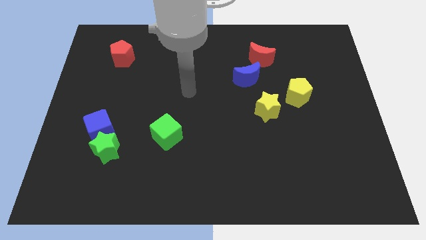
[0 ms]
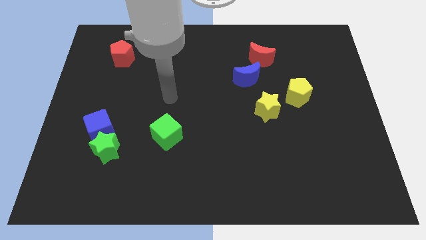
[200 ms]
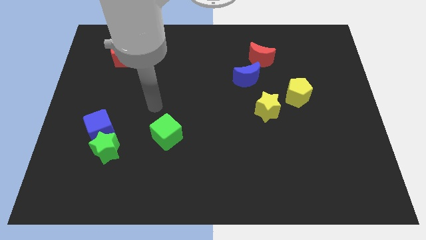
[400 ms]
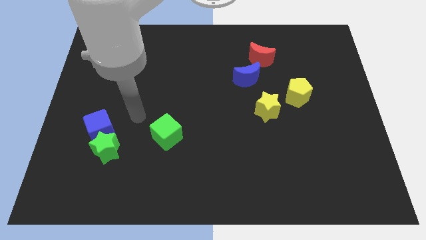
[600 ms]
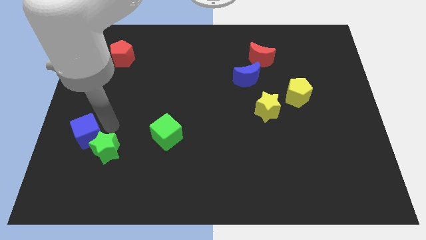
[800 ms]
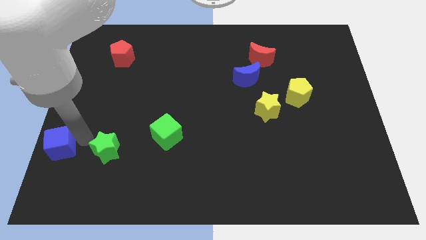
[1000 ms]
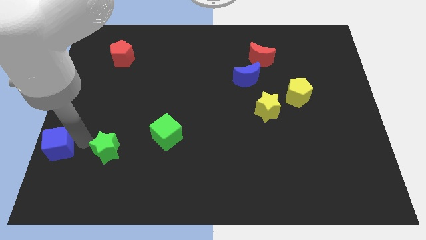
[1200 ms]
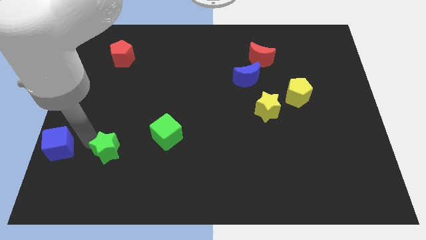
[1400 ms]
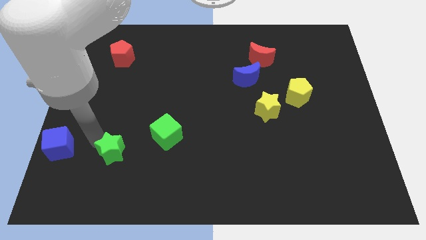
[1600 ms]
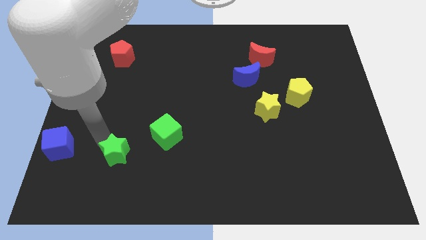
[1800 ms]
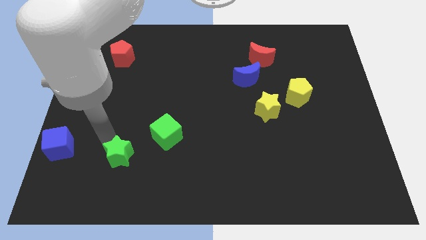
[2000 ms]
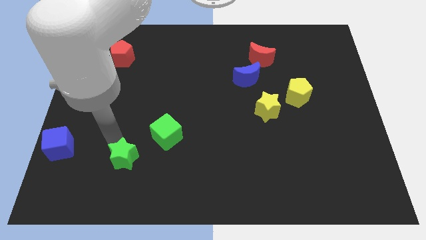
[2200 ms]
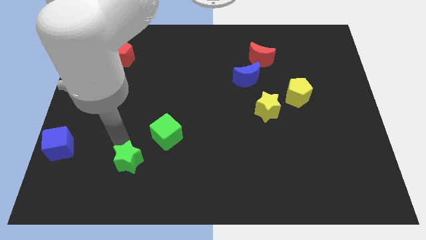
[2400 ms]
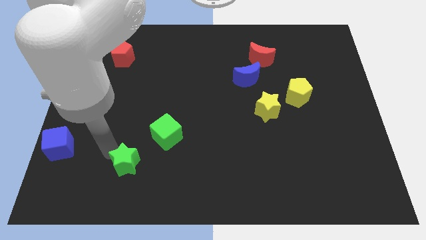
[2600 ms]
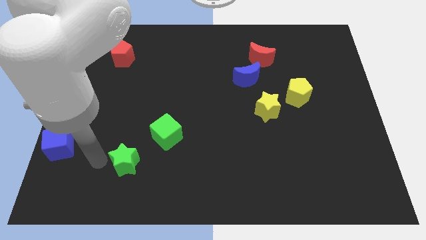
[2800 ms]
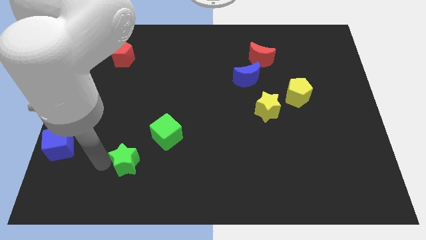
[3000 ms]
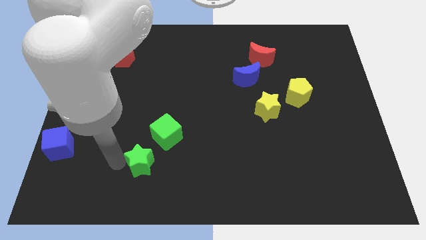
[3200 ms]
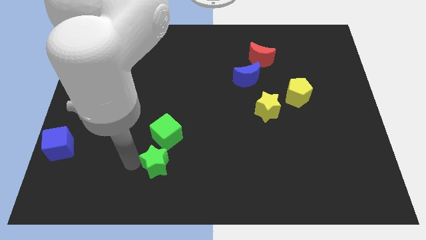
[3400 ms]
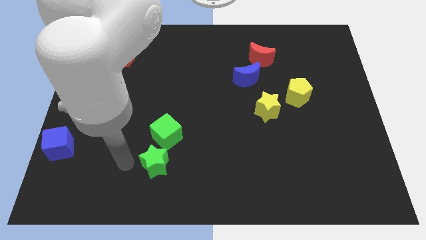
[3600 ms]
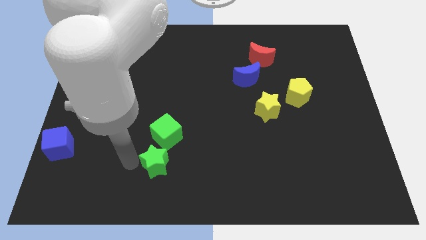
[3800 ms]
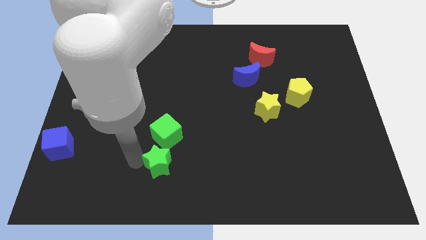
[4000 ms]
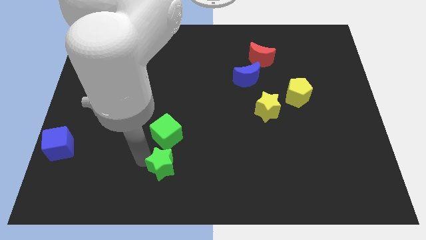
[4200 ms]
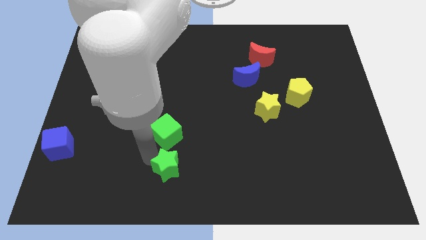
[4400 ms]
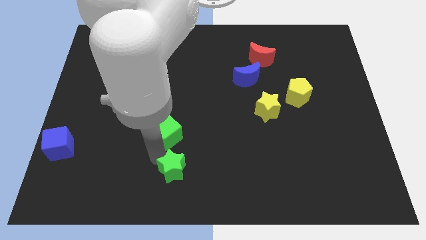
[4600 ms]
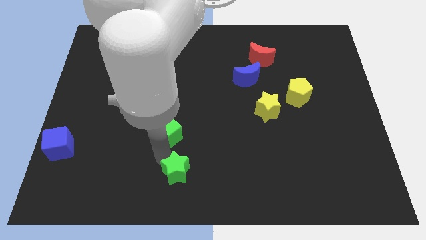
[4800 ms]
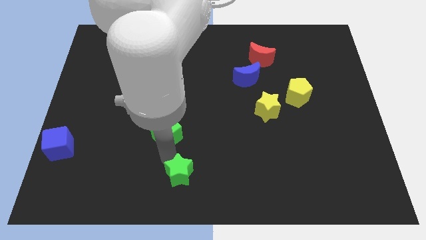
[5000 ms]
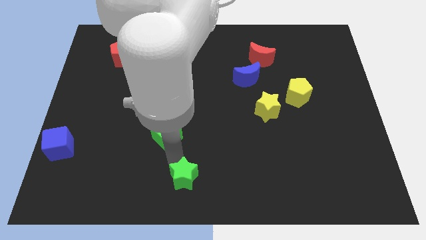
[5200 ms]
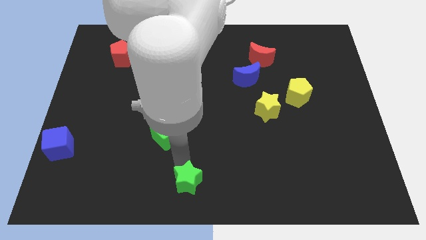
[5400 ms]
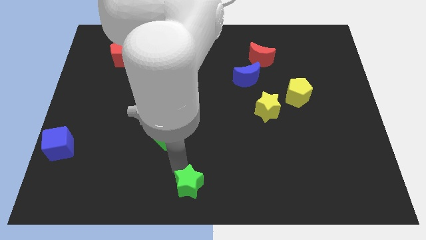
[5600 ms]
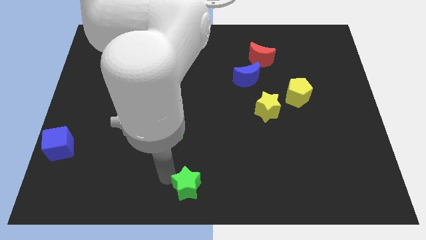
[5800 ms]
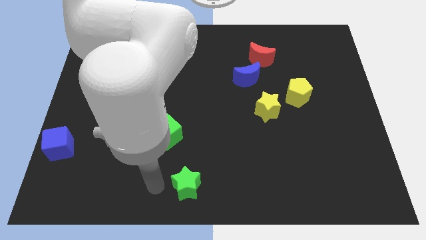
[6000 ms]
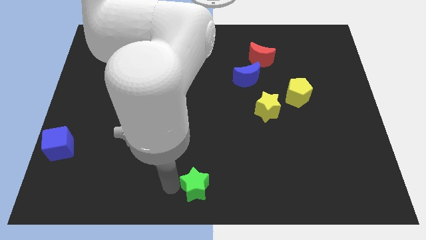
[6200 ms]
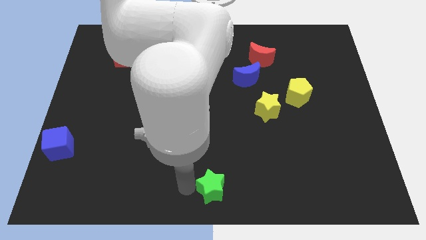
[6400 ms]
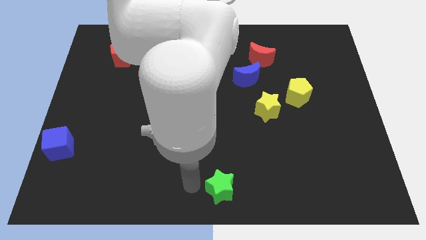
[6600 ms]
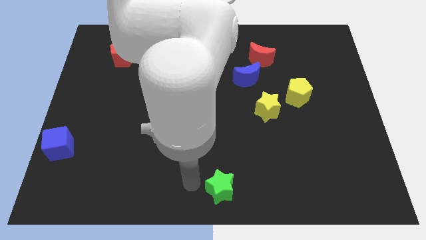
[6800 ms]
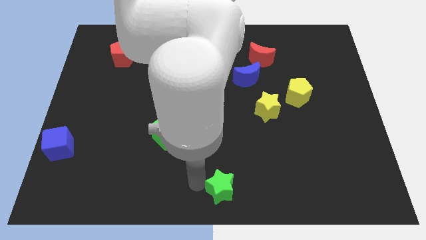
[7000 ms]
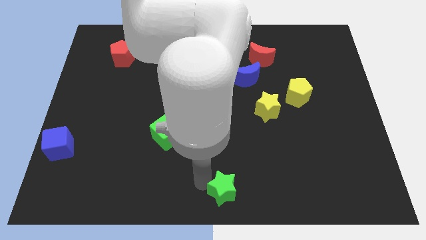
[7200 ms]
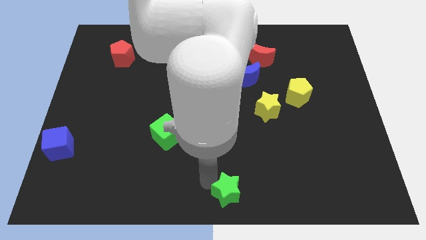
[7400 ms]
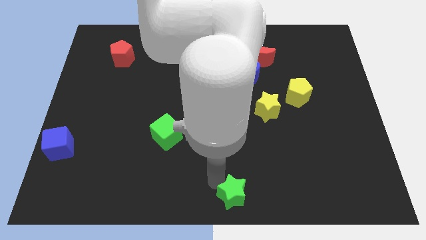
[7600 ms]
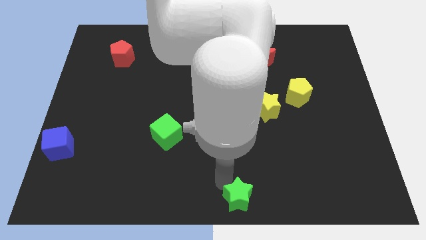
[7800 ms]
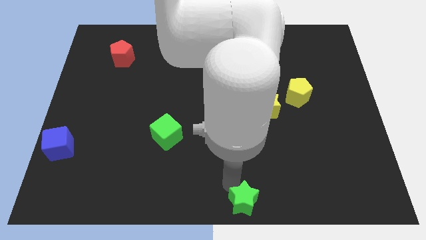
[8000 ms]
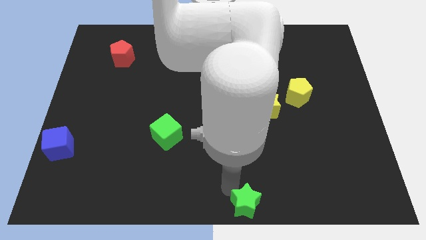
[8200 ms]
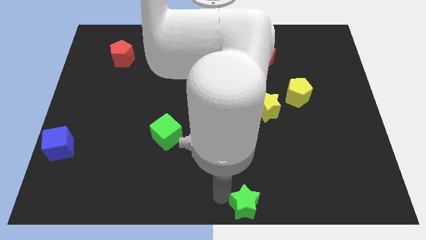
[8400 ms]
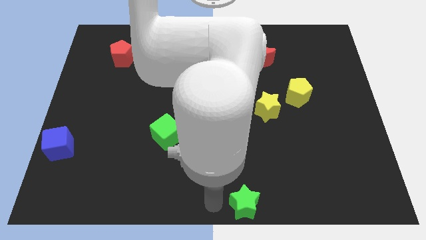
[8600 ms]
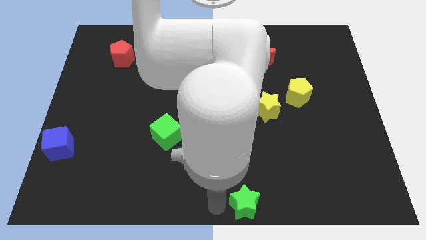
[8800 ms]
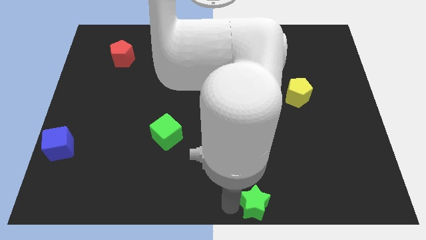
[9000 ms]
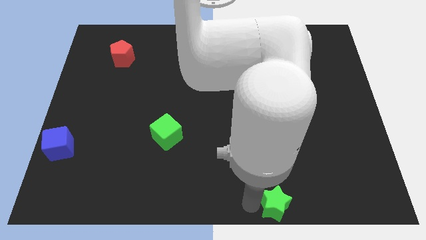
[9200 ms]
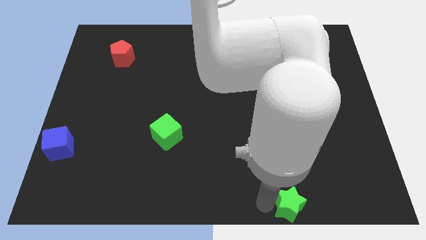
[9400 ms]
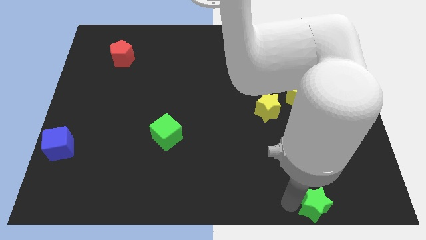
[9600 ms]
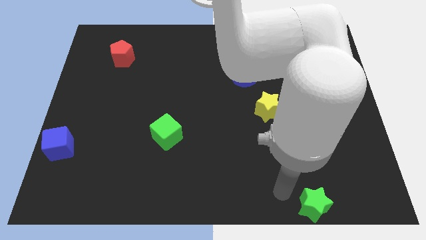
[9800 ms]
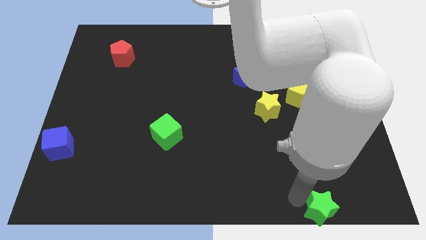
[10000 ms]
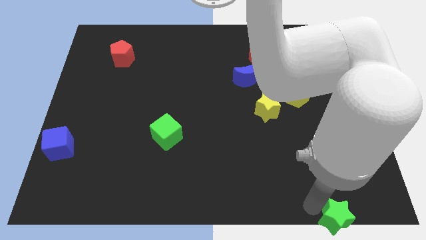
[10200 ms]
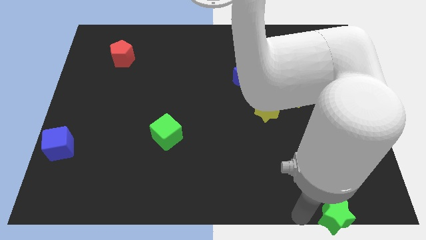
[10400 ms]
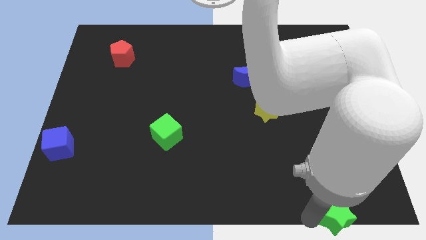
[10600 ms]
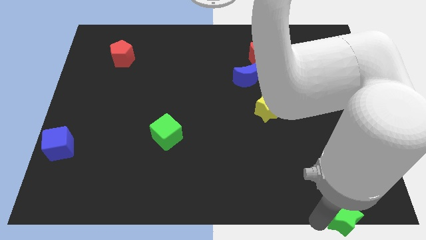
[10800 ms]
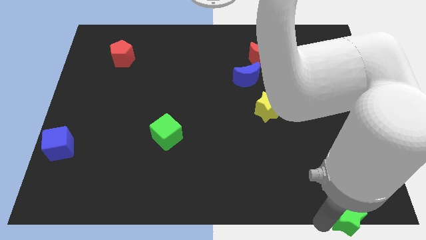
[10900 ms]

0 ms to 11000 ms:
move the green star to the lower right corner
